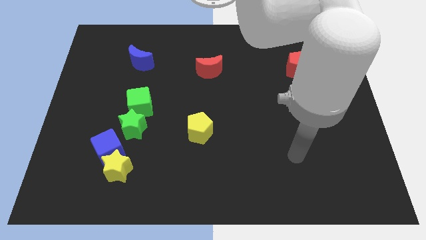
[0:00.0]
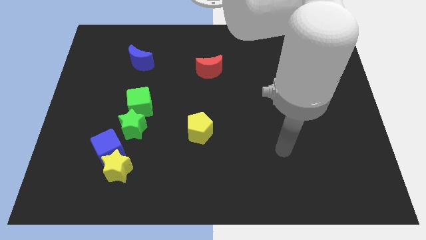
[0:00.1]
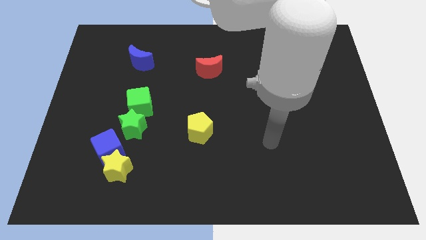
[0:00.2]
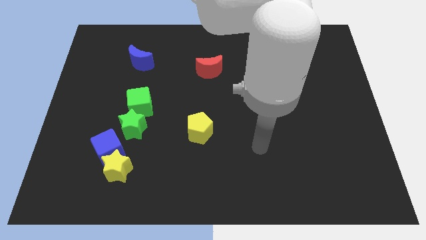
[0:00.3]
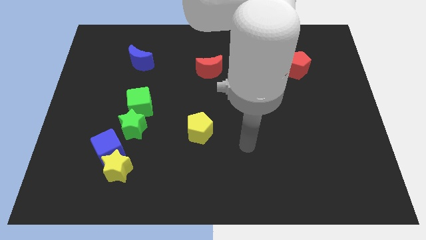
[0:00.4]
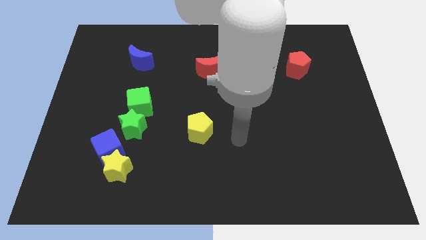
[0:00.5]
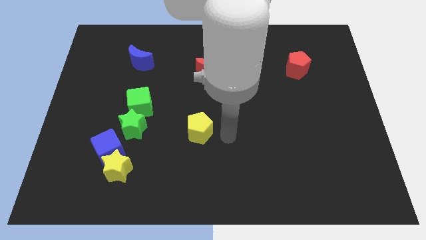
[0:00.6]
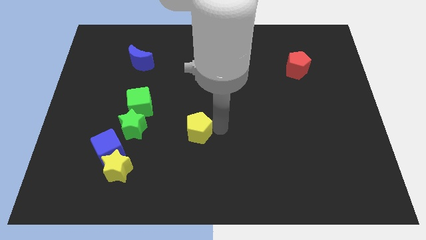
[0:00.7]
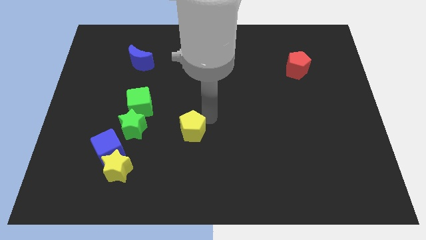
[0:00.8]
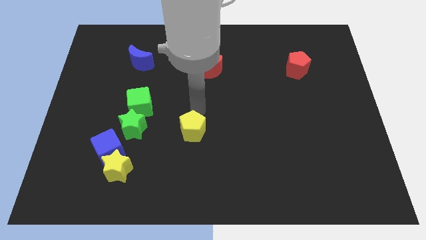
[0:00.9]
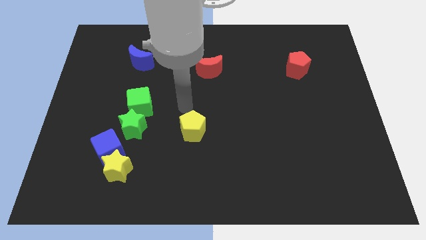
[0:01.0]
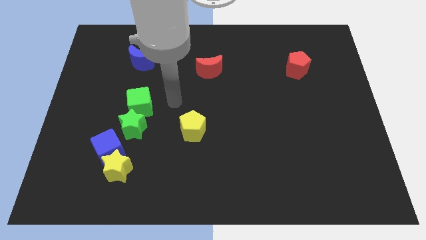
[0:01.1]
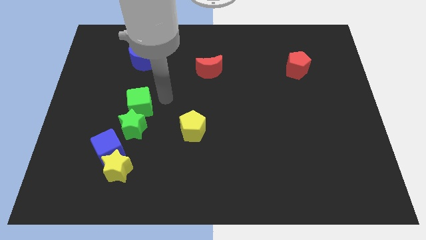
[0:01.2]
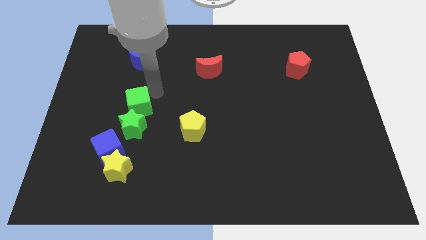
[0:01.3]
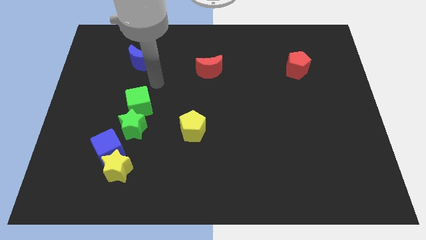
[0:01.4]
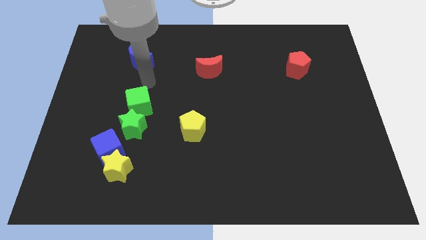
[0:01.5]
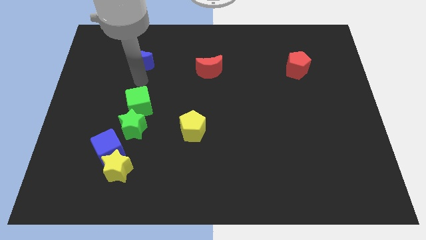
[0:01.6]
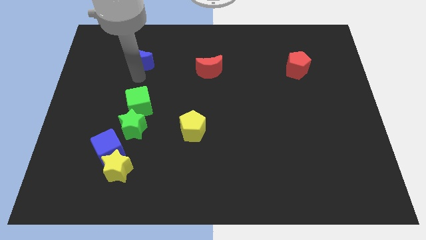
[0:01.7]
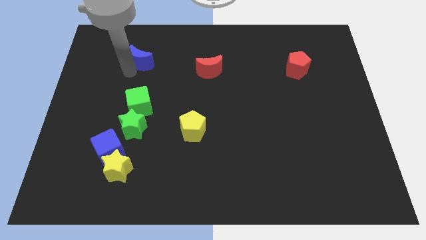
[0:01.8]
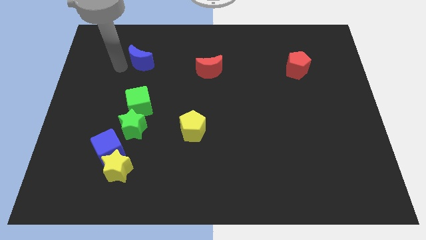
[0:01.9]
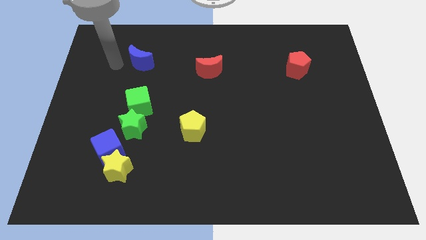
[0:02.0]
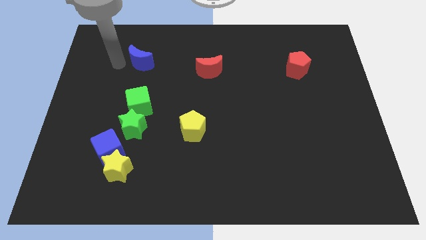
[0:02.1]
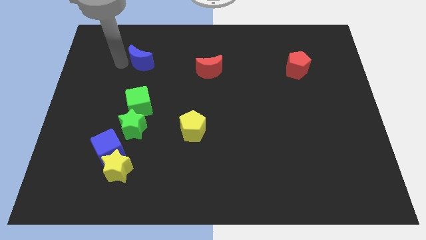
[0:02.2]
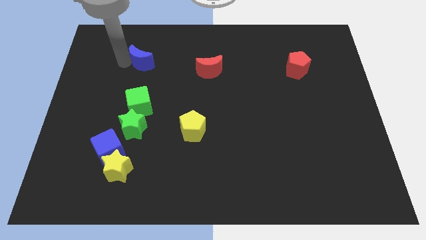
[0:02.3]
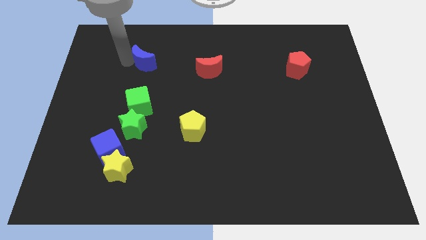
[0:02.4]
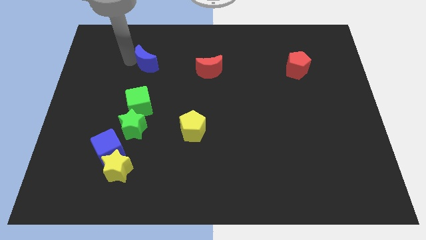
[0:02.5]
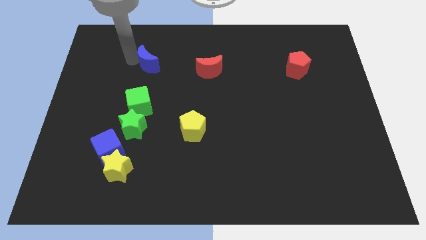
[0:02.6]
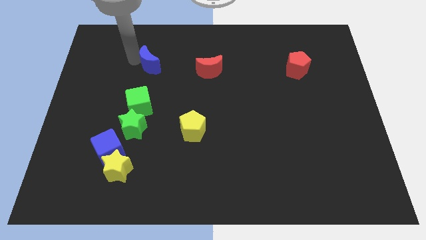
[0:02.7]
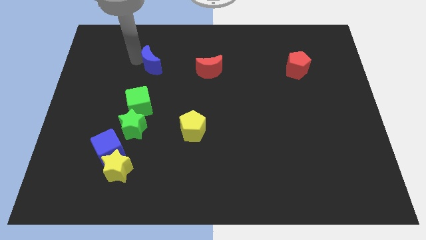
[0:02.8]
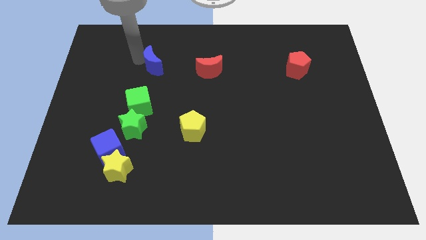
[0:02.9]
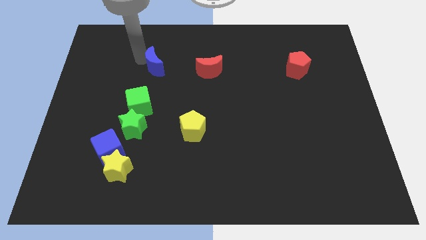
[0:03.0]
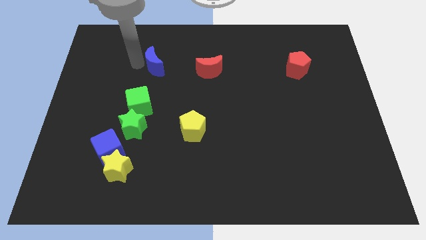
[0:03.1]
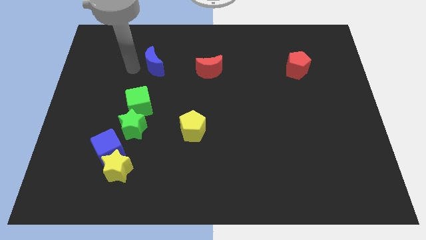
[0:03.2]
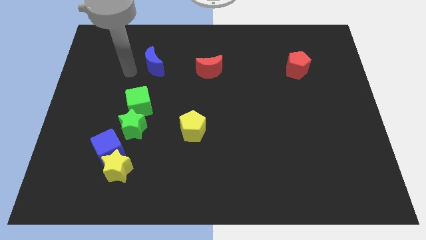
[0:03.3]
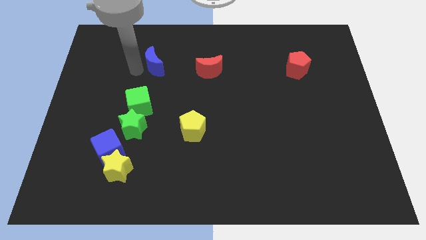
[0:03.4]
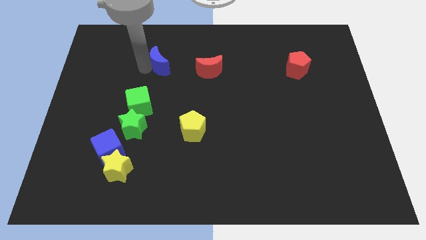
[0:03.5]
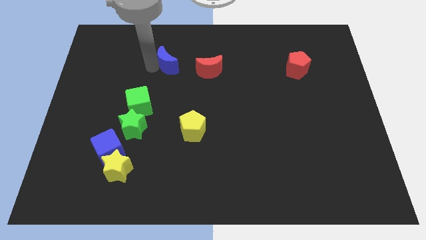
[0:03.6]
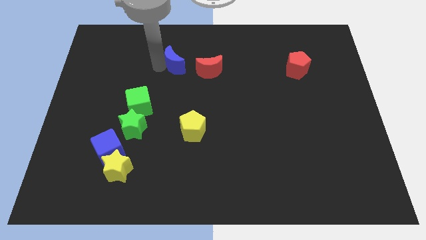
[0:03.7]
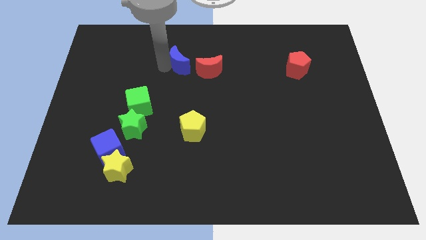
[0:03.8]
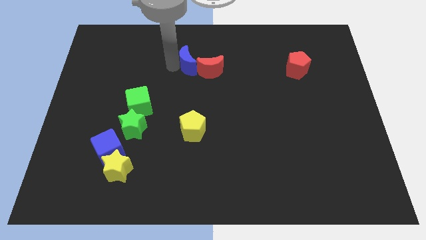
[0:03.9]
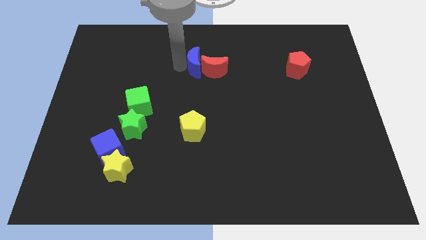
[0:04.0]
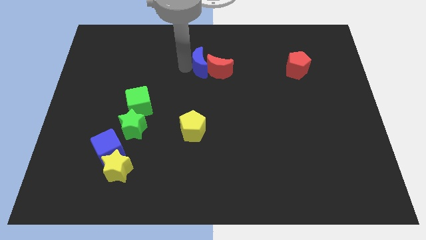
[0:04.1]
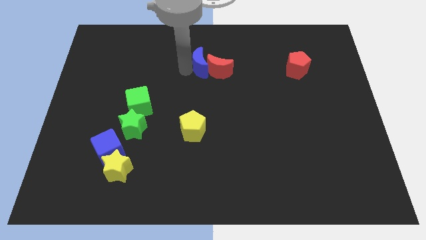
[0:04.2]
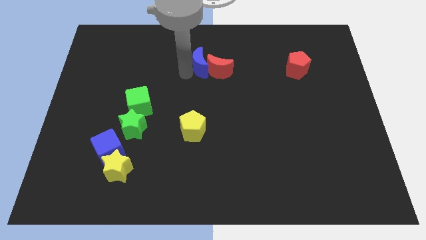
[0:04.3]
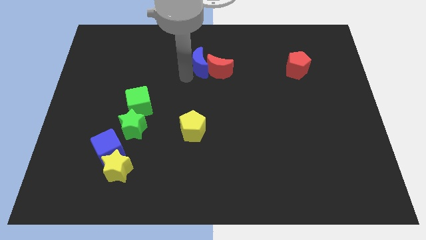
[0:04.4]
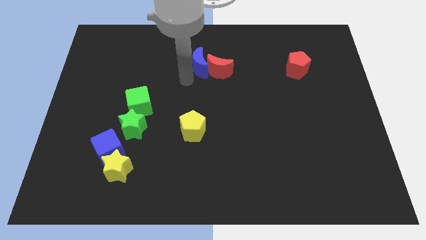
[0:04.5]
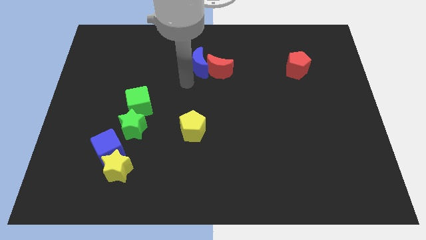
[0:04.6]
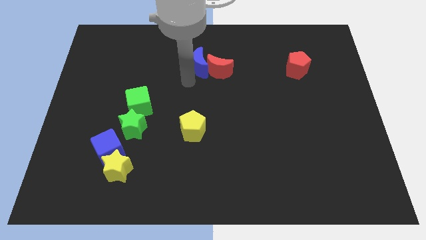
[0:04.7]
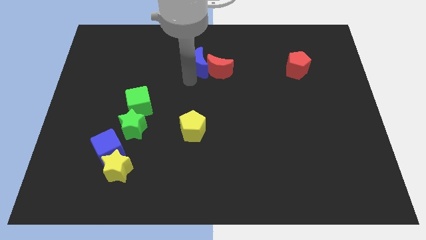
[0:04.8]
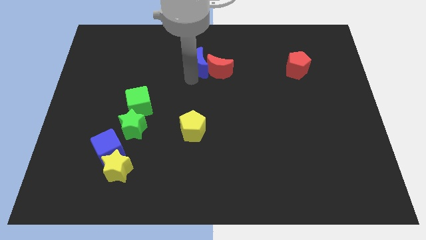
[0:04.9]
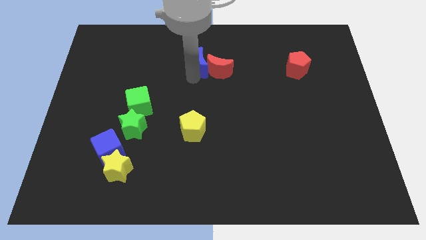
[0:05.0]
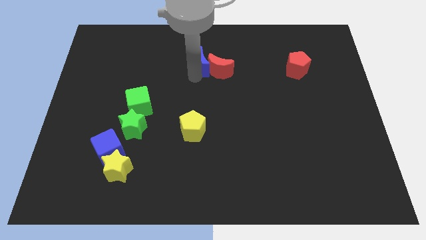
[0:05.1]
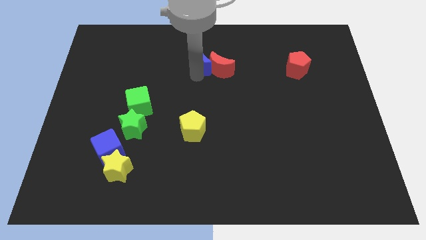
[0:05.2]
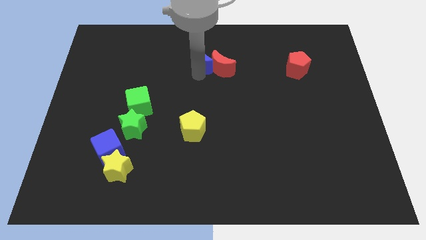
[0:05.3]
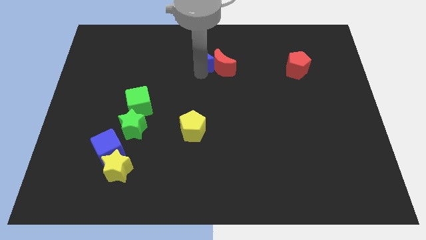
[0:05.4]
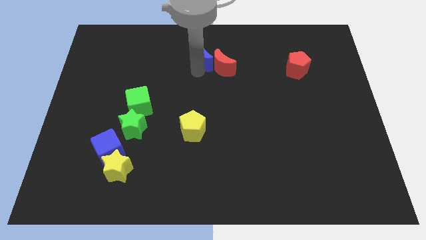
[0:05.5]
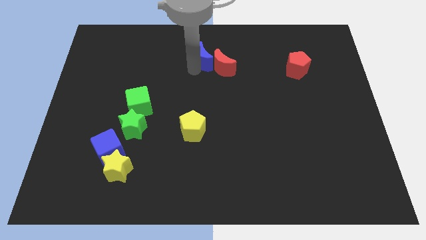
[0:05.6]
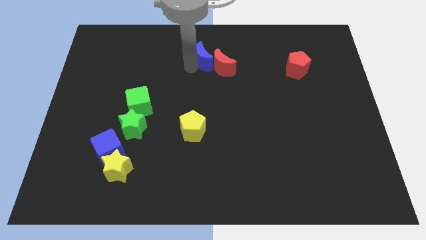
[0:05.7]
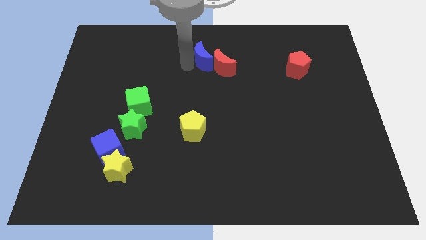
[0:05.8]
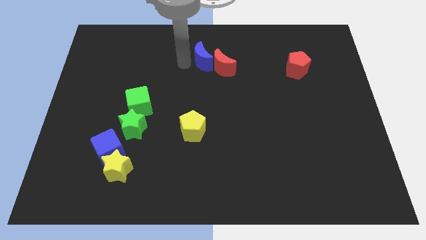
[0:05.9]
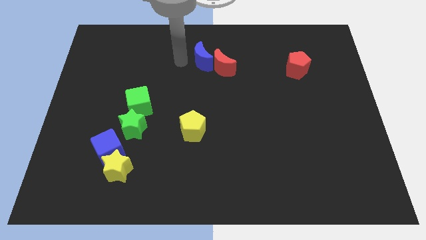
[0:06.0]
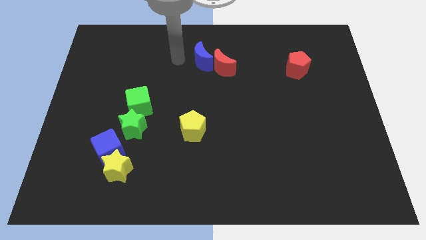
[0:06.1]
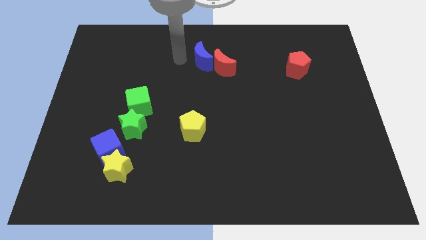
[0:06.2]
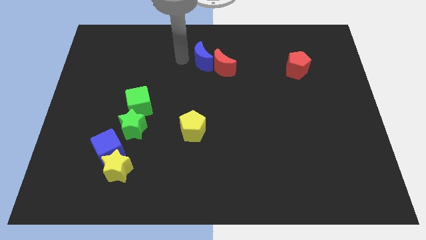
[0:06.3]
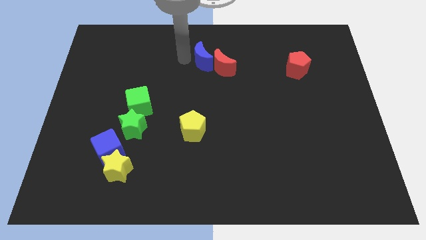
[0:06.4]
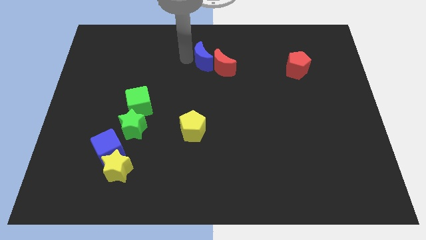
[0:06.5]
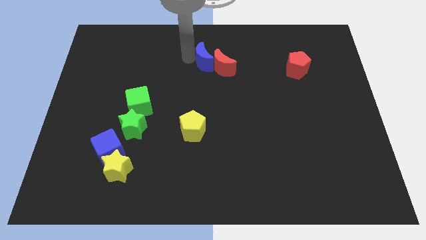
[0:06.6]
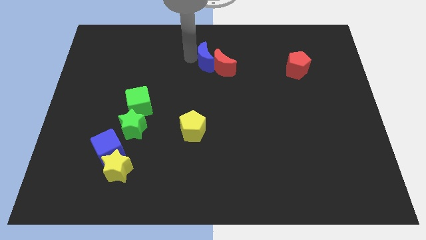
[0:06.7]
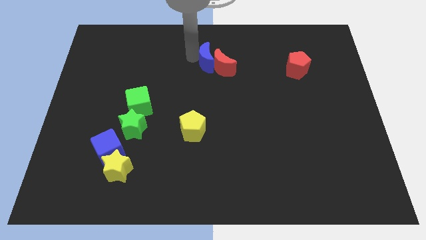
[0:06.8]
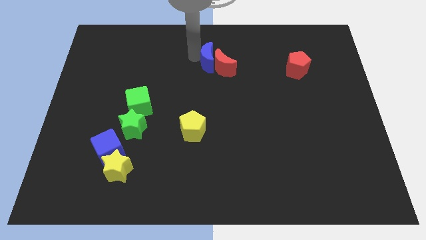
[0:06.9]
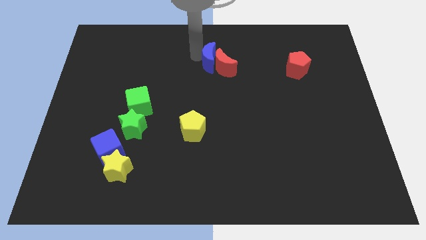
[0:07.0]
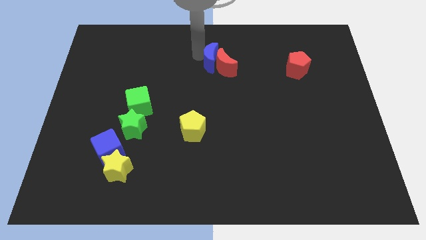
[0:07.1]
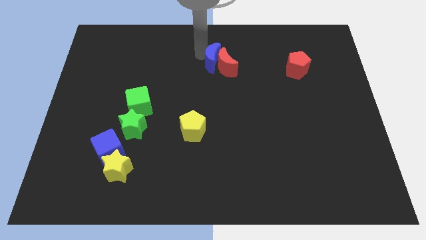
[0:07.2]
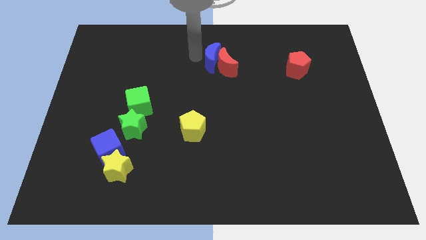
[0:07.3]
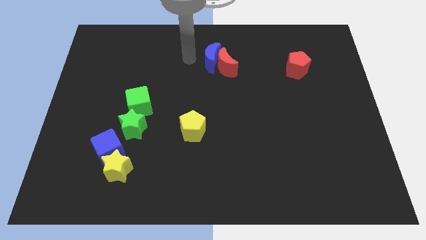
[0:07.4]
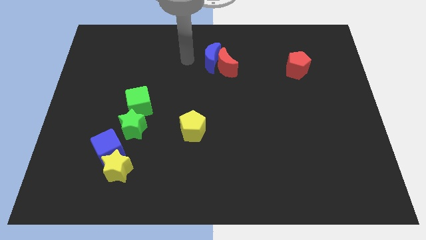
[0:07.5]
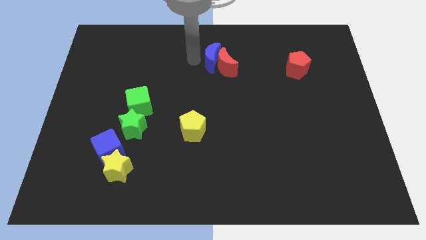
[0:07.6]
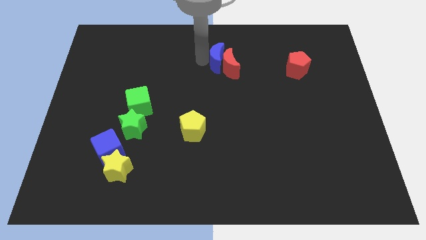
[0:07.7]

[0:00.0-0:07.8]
move the blue moon right

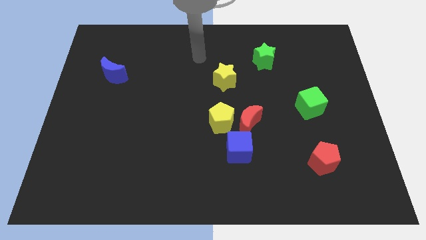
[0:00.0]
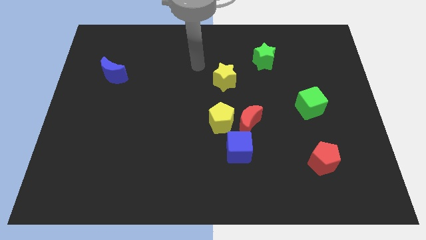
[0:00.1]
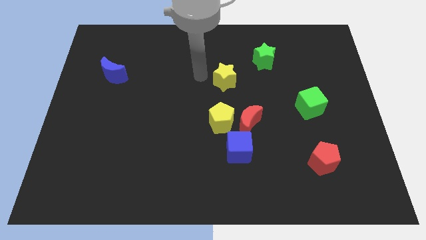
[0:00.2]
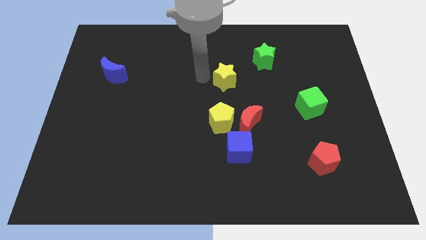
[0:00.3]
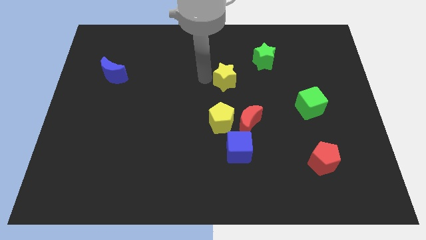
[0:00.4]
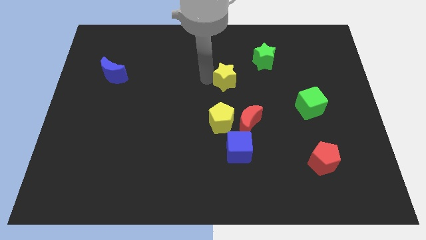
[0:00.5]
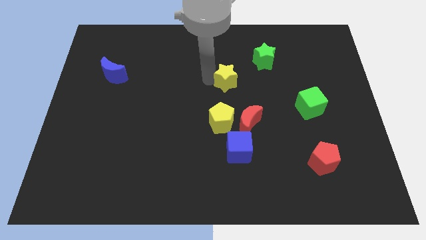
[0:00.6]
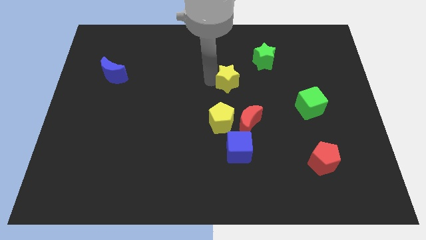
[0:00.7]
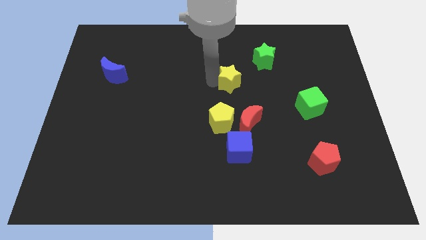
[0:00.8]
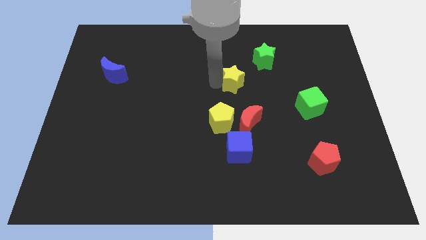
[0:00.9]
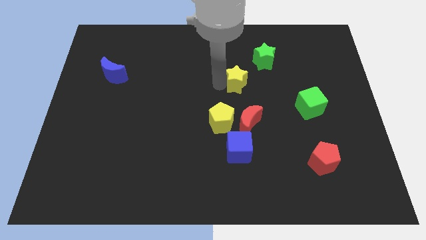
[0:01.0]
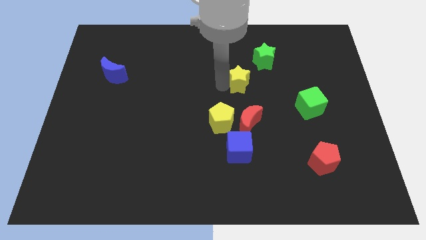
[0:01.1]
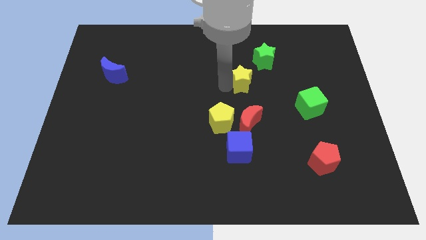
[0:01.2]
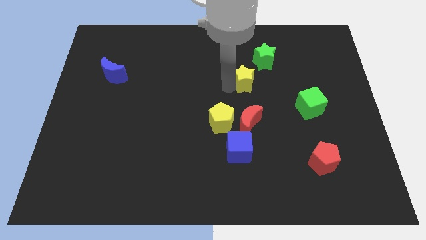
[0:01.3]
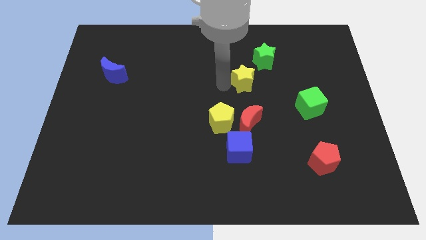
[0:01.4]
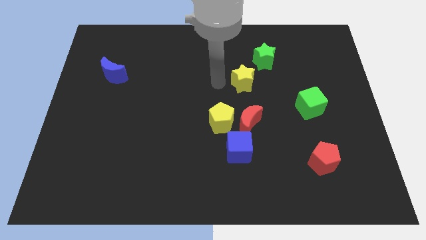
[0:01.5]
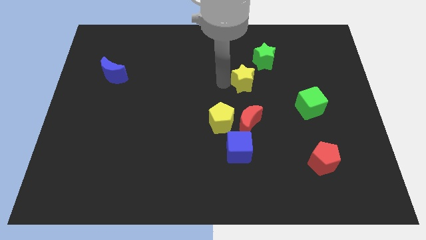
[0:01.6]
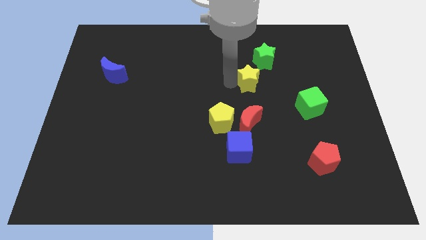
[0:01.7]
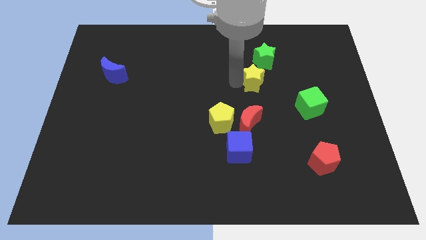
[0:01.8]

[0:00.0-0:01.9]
slide the yellow star to the right a bit
